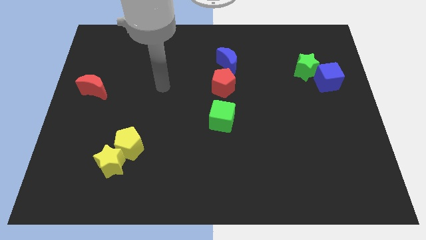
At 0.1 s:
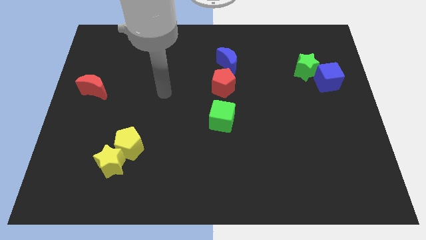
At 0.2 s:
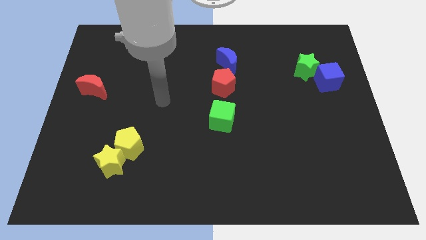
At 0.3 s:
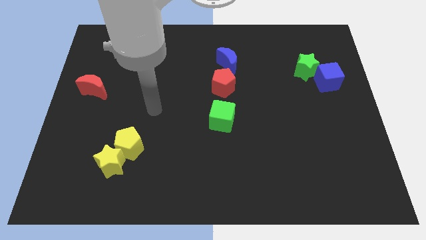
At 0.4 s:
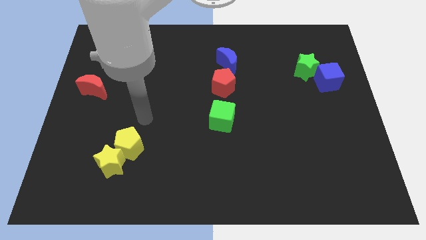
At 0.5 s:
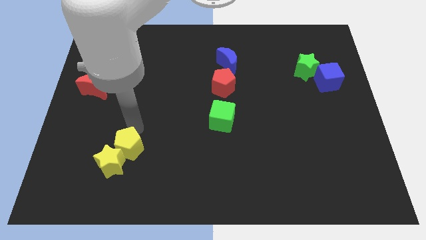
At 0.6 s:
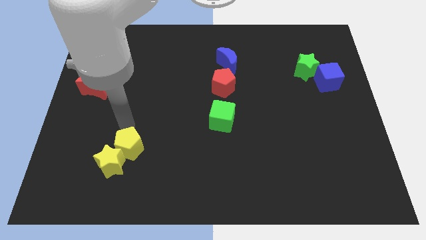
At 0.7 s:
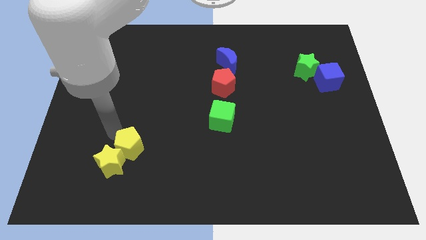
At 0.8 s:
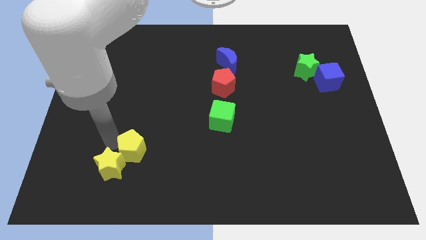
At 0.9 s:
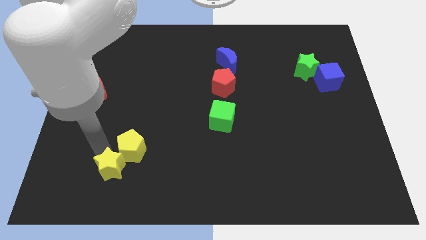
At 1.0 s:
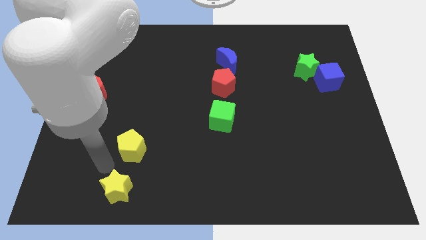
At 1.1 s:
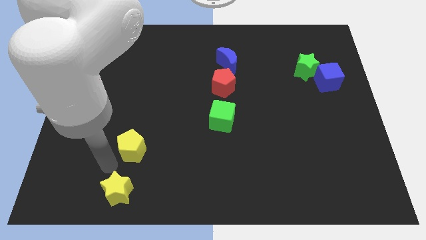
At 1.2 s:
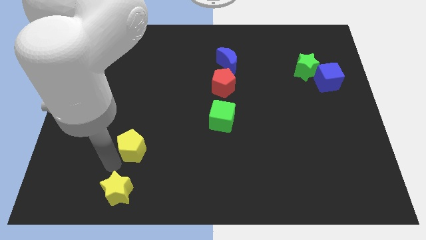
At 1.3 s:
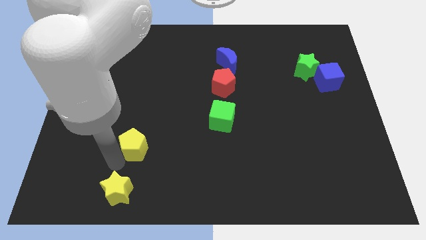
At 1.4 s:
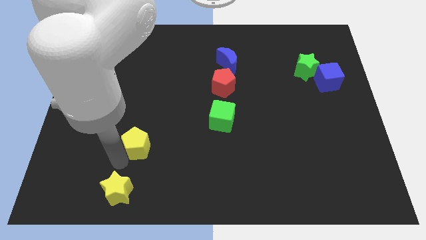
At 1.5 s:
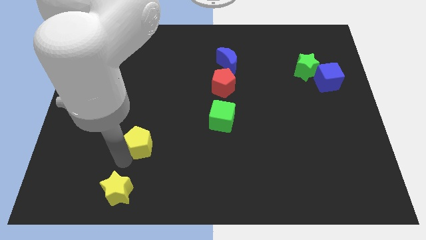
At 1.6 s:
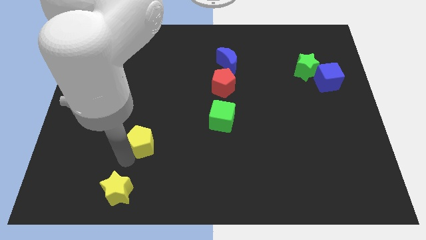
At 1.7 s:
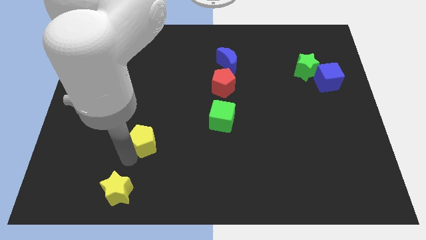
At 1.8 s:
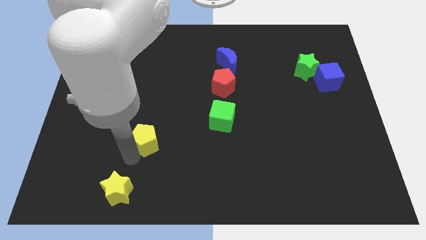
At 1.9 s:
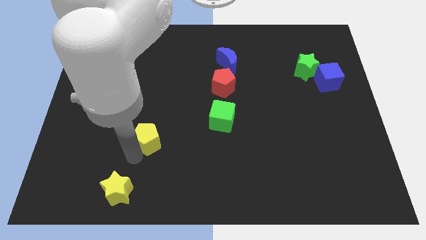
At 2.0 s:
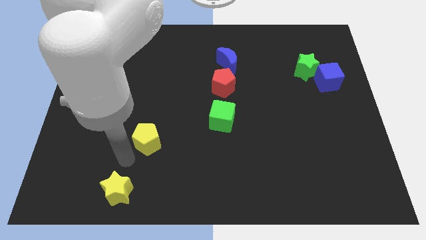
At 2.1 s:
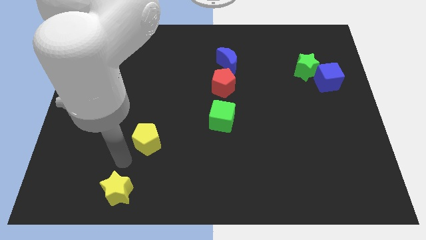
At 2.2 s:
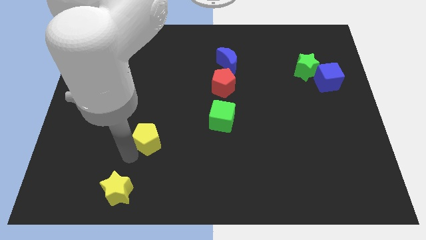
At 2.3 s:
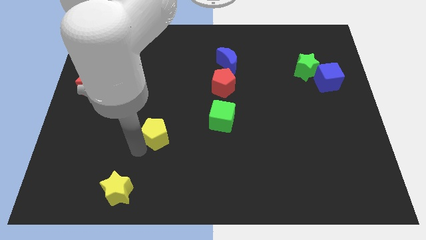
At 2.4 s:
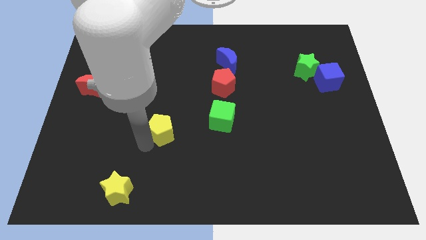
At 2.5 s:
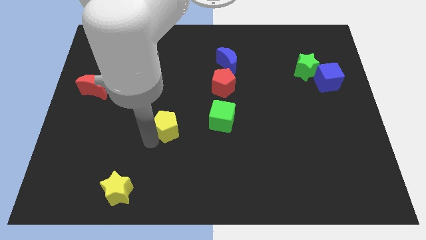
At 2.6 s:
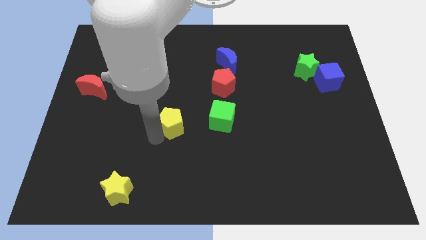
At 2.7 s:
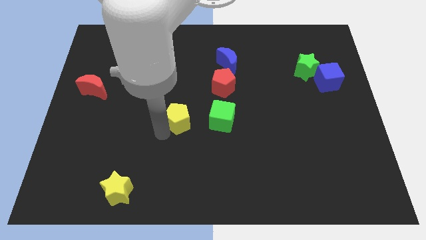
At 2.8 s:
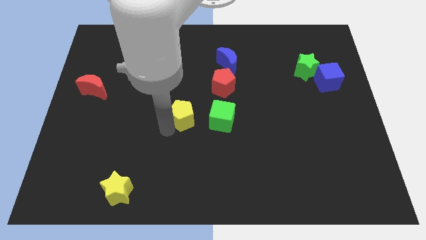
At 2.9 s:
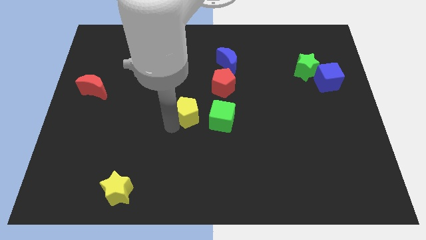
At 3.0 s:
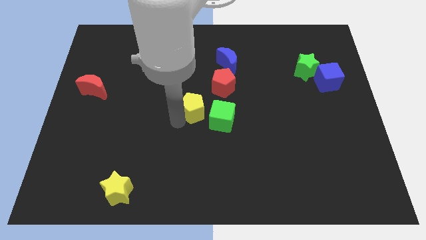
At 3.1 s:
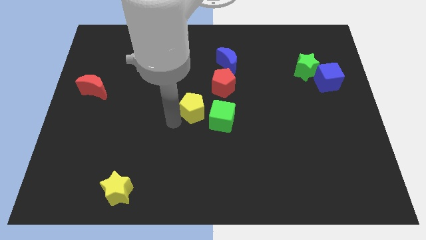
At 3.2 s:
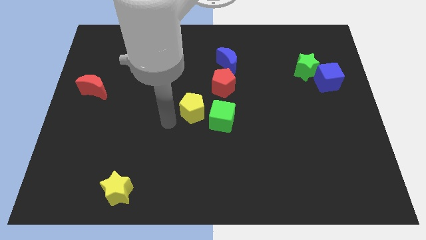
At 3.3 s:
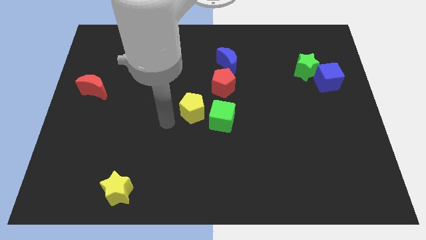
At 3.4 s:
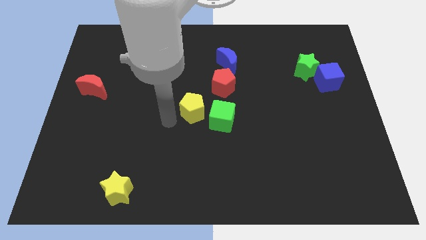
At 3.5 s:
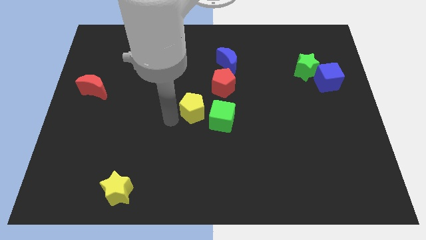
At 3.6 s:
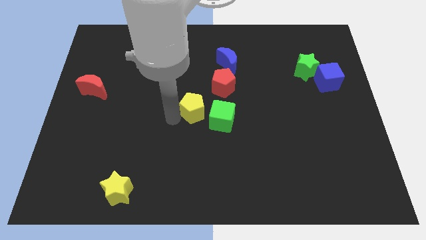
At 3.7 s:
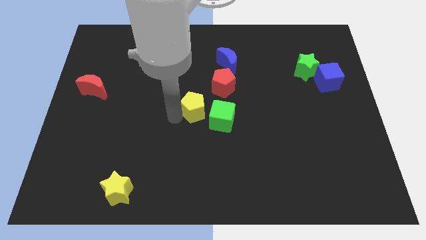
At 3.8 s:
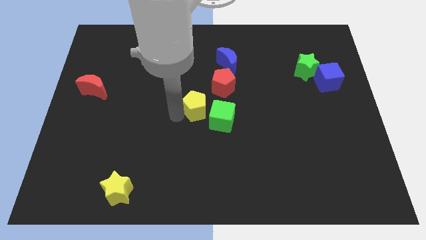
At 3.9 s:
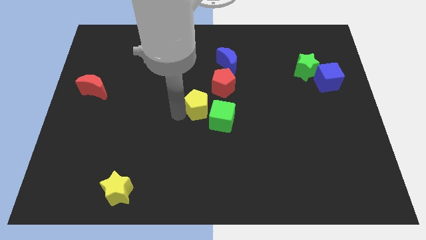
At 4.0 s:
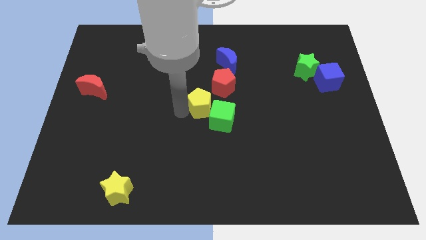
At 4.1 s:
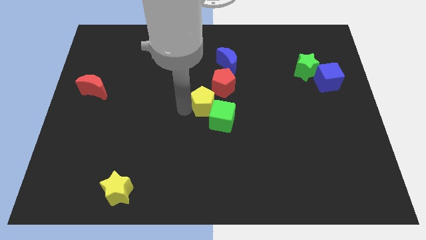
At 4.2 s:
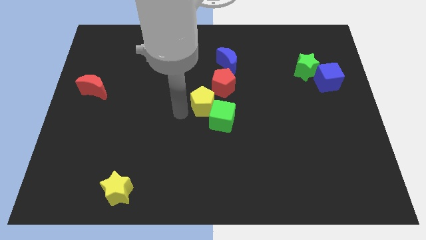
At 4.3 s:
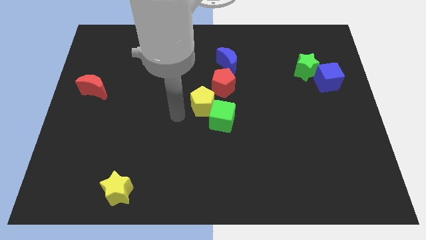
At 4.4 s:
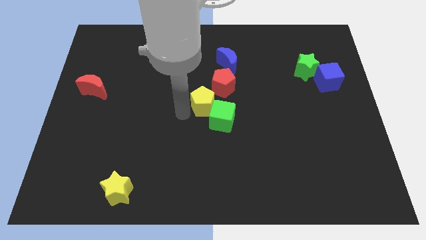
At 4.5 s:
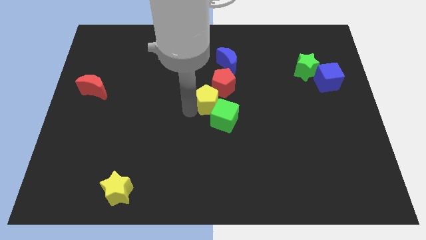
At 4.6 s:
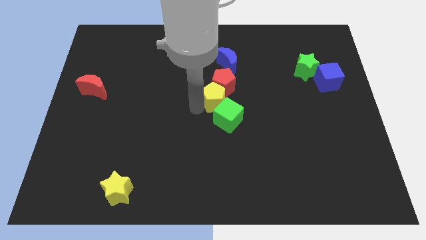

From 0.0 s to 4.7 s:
push the yellow pentagon to the bottom side of the blue moon

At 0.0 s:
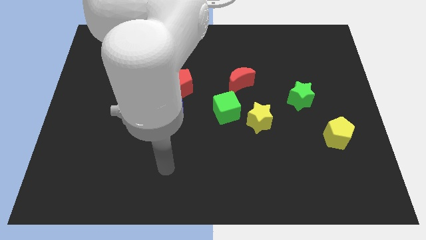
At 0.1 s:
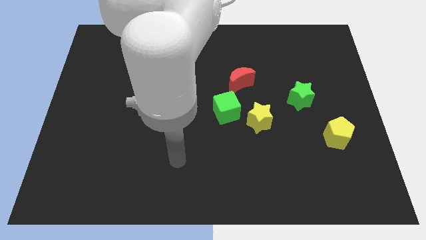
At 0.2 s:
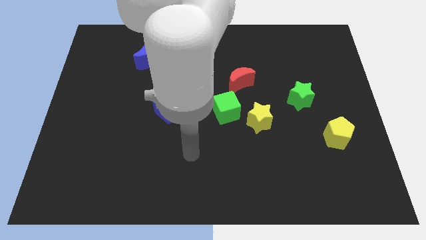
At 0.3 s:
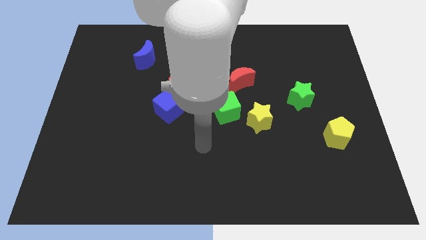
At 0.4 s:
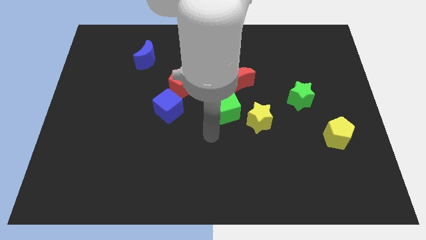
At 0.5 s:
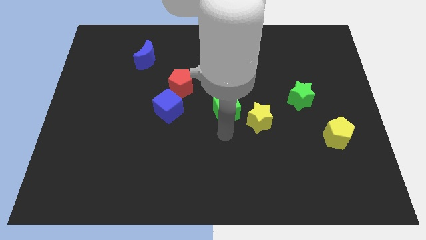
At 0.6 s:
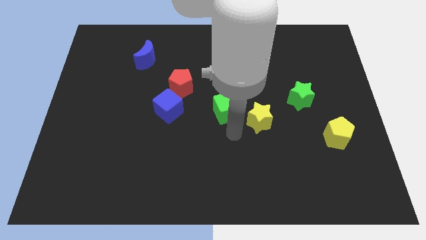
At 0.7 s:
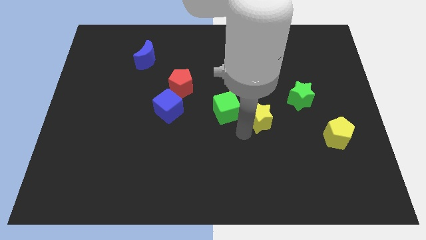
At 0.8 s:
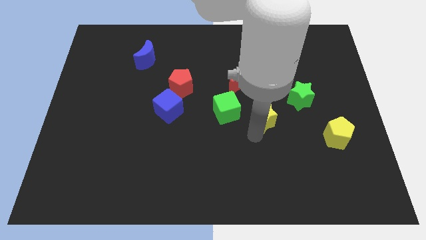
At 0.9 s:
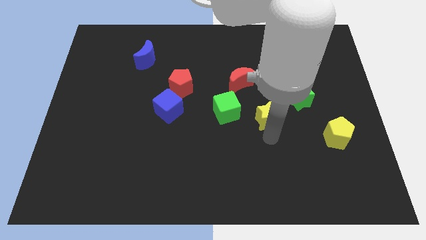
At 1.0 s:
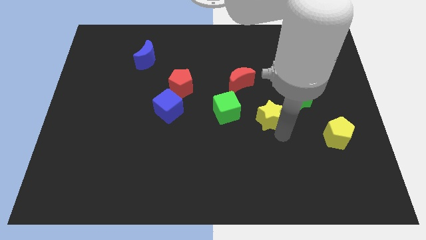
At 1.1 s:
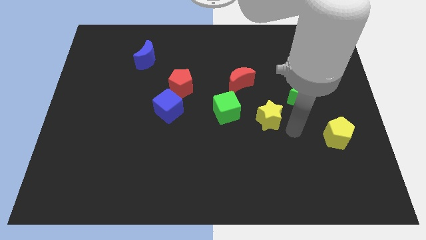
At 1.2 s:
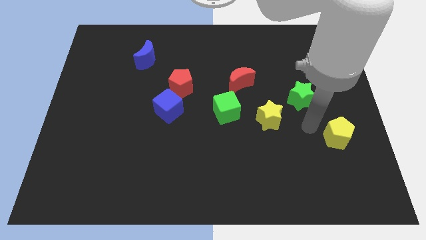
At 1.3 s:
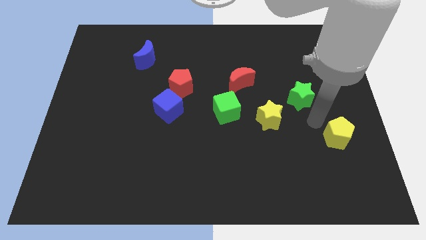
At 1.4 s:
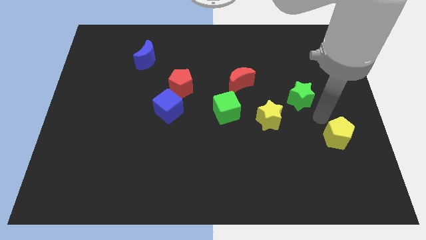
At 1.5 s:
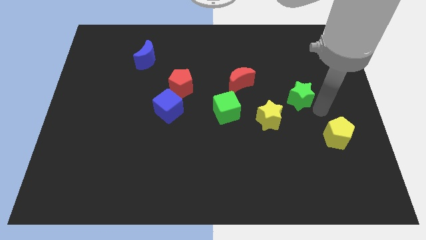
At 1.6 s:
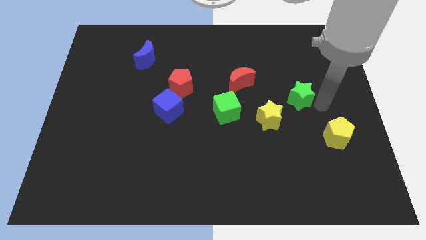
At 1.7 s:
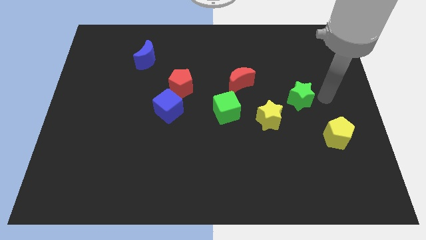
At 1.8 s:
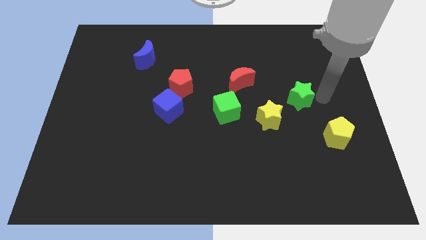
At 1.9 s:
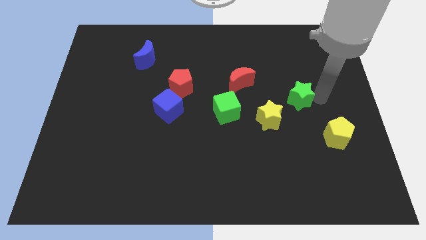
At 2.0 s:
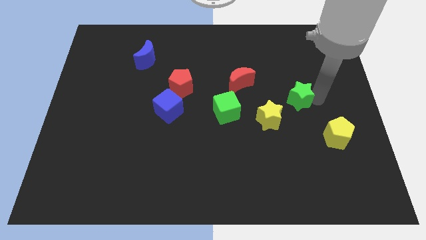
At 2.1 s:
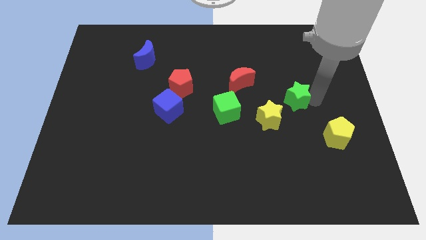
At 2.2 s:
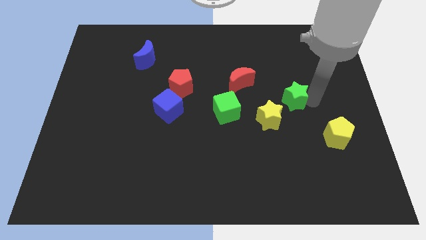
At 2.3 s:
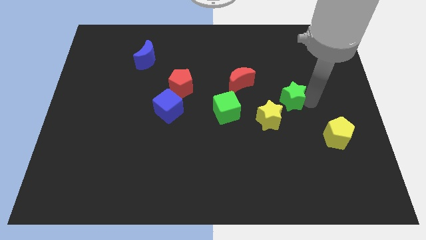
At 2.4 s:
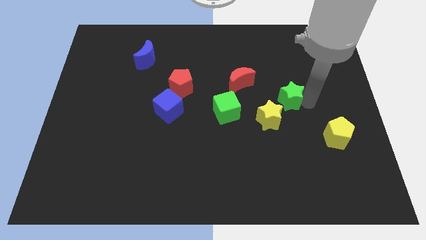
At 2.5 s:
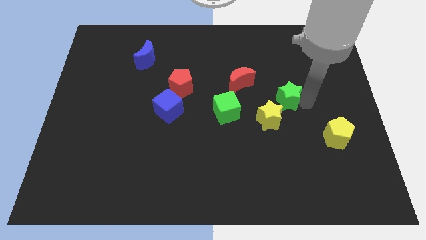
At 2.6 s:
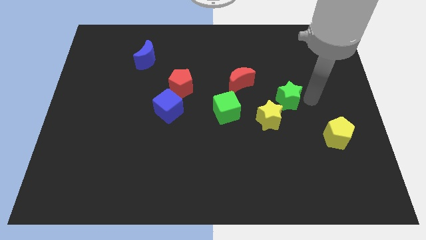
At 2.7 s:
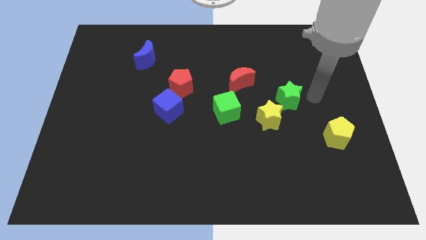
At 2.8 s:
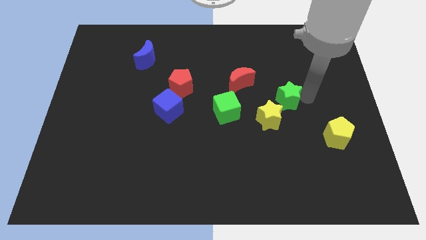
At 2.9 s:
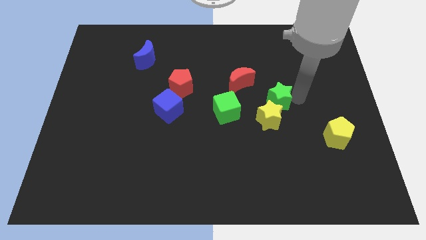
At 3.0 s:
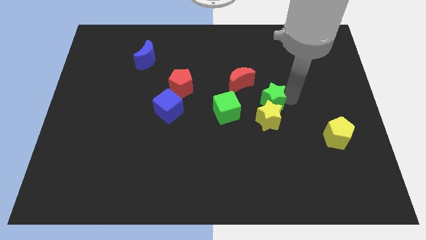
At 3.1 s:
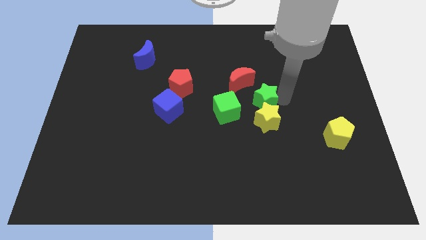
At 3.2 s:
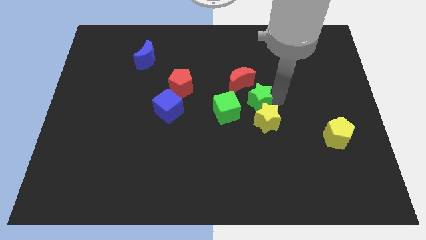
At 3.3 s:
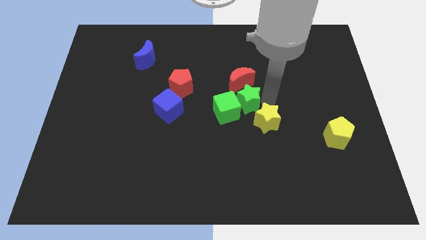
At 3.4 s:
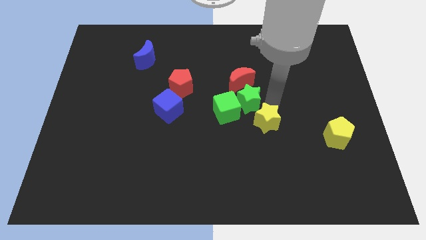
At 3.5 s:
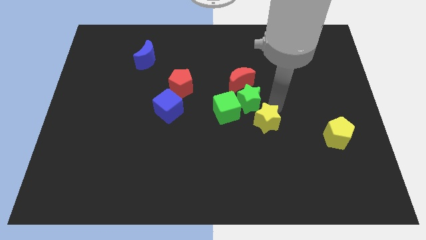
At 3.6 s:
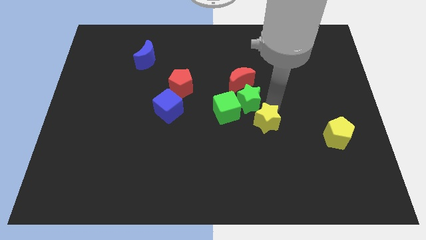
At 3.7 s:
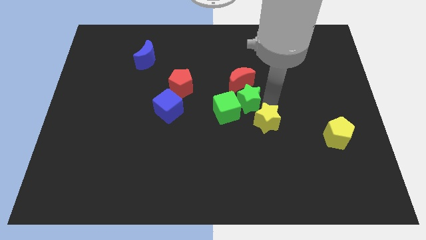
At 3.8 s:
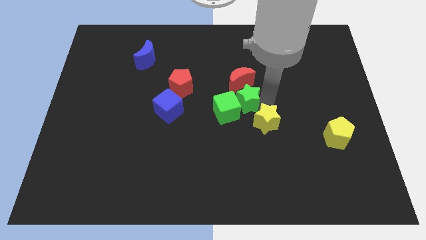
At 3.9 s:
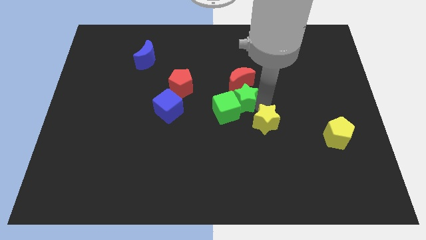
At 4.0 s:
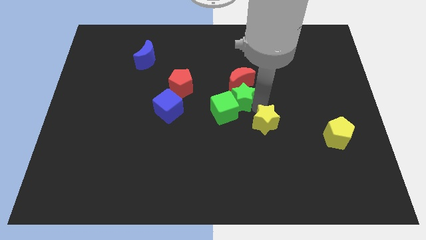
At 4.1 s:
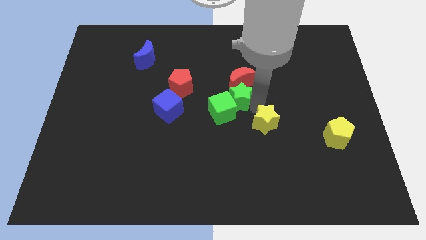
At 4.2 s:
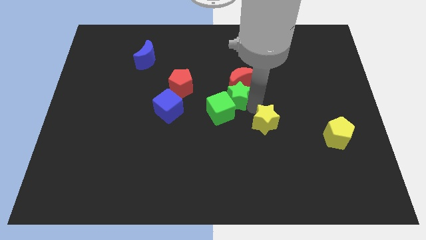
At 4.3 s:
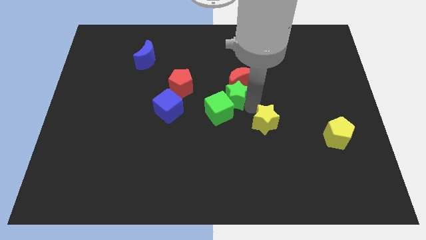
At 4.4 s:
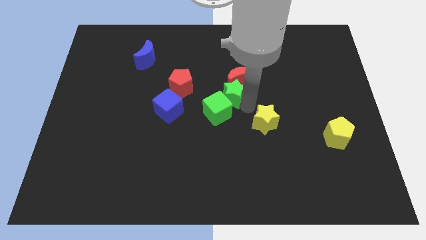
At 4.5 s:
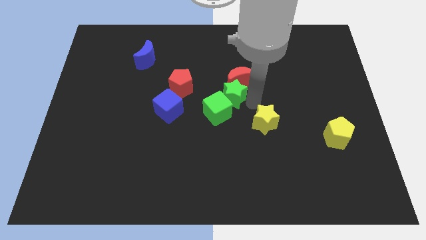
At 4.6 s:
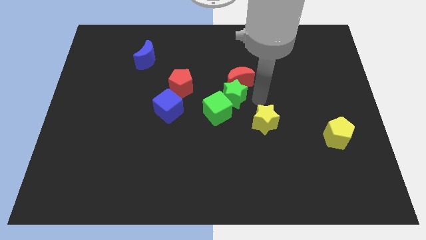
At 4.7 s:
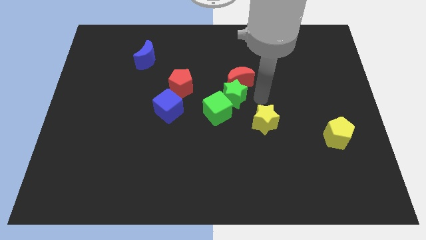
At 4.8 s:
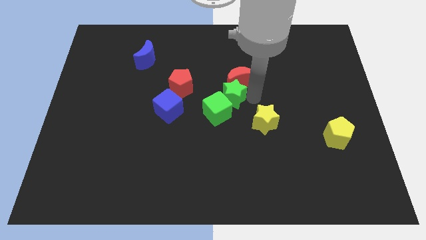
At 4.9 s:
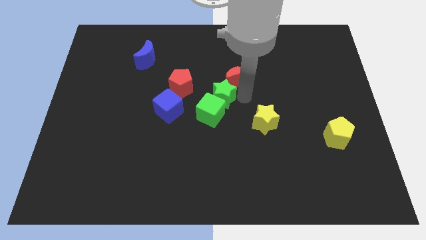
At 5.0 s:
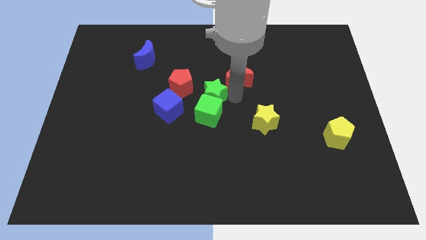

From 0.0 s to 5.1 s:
move the green star to the top left of the green cube
